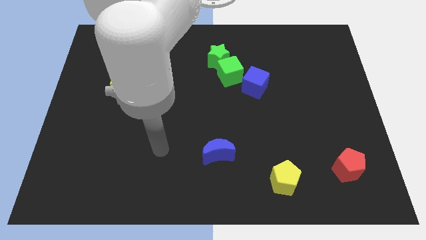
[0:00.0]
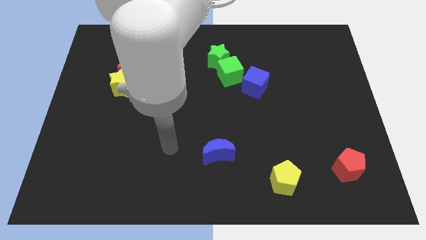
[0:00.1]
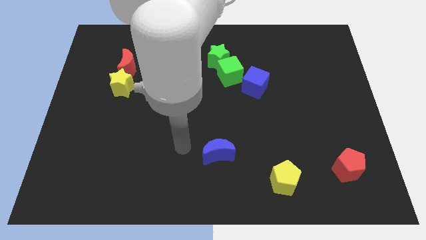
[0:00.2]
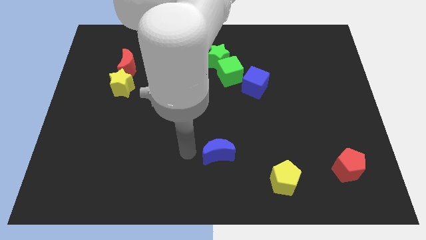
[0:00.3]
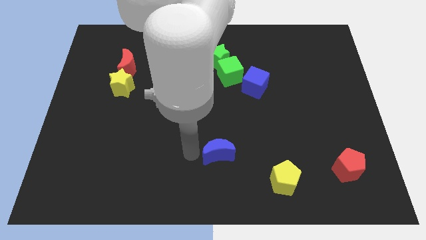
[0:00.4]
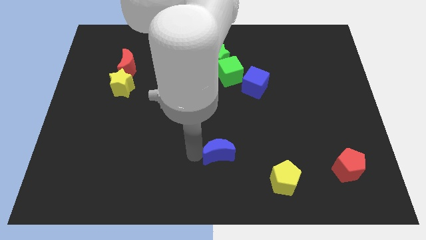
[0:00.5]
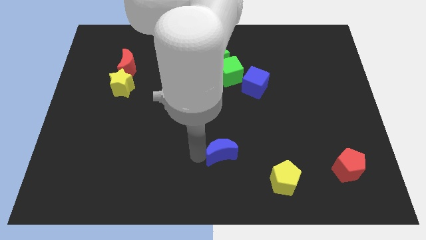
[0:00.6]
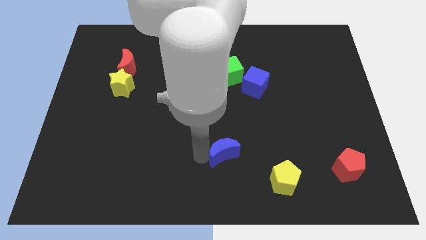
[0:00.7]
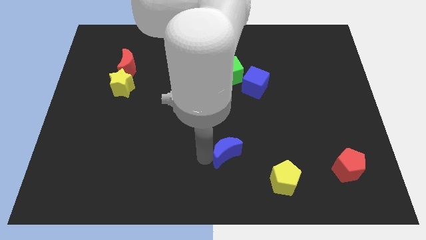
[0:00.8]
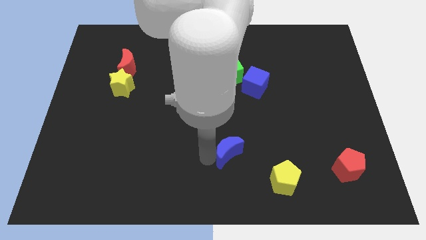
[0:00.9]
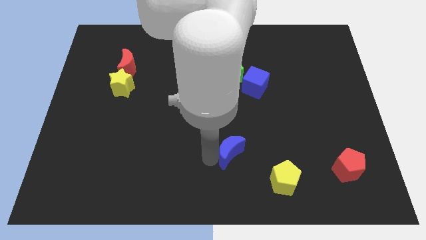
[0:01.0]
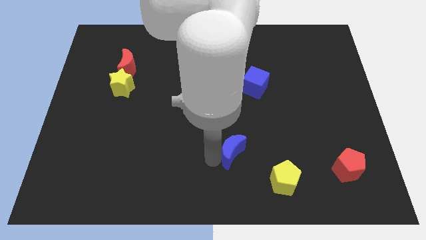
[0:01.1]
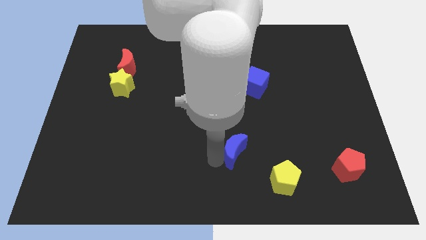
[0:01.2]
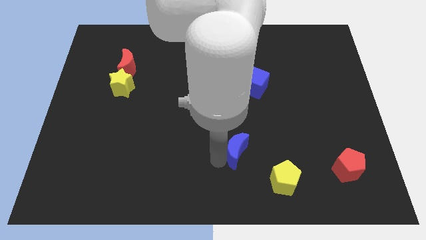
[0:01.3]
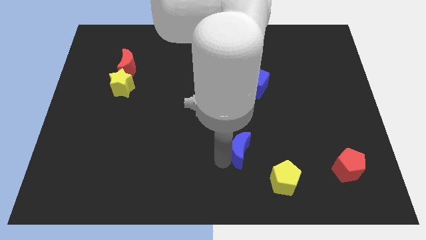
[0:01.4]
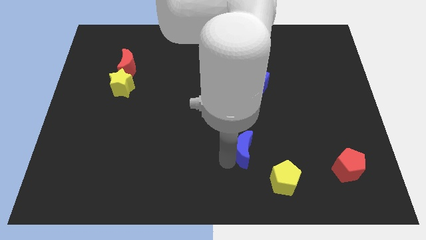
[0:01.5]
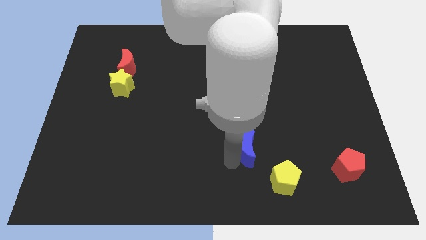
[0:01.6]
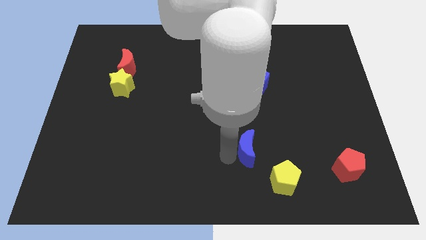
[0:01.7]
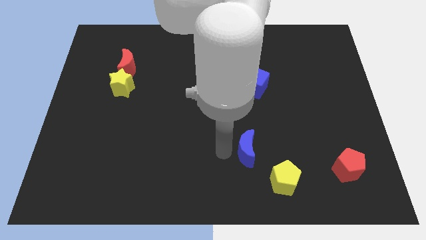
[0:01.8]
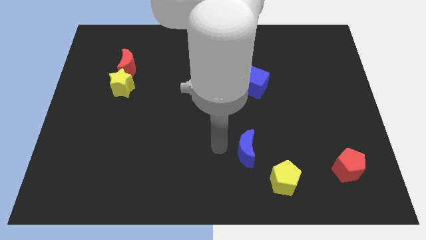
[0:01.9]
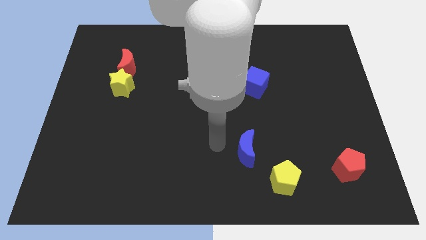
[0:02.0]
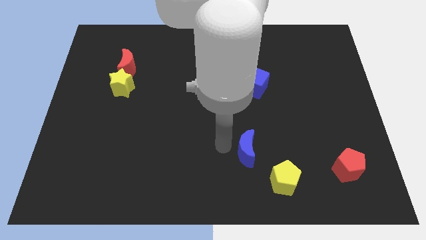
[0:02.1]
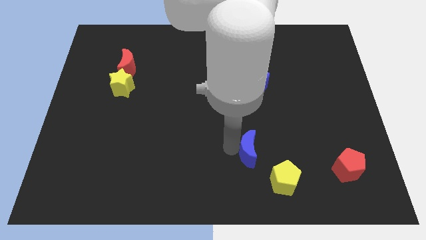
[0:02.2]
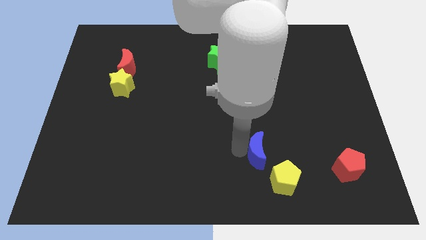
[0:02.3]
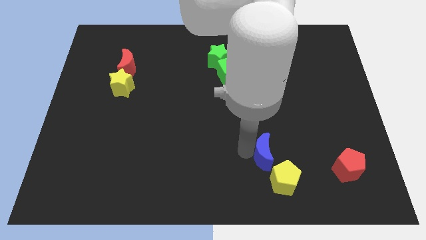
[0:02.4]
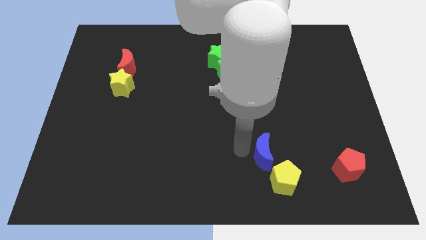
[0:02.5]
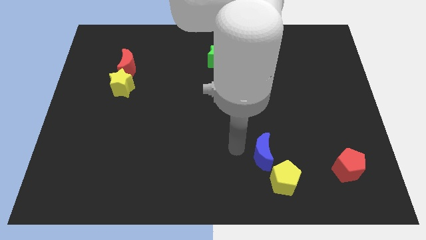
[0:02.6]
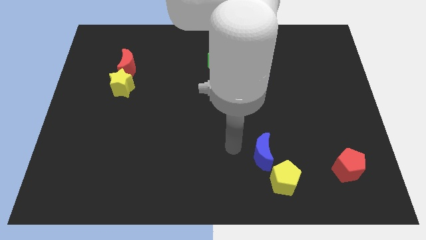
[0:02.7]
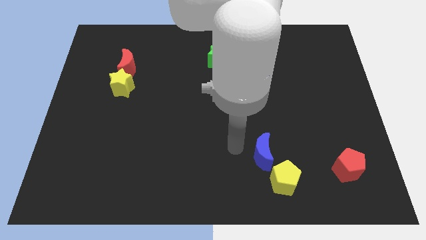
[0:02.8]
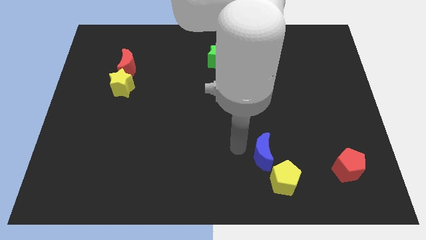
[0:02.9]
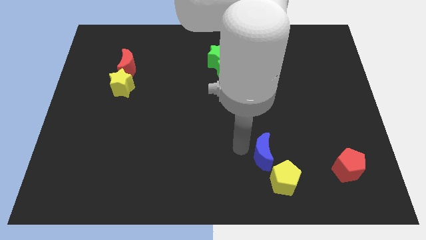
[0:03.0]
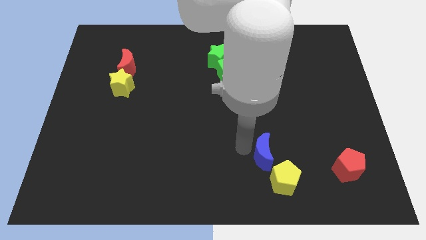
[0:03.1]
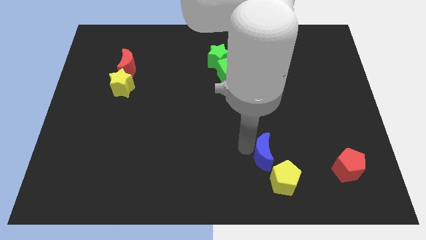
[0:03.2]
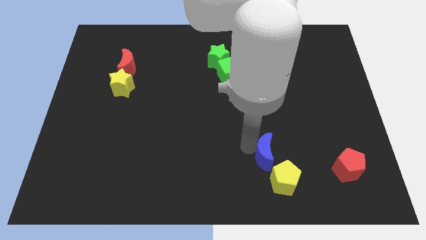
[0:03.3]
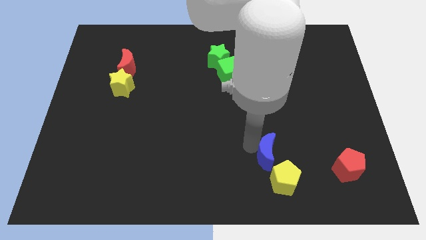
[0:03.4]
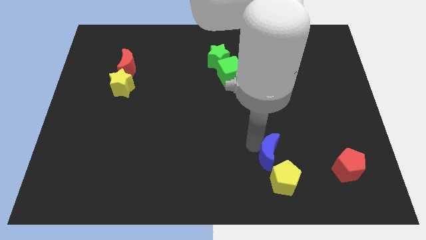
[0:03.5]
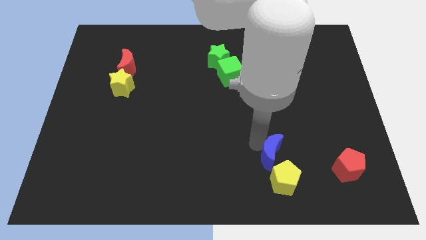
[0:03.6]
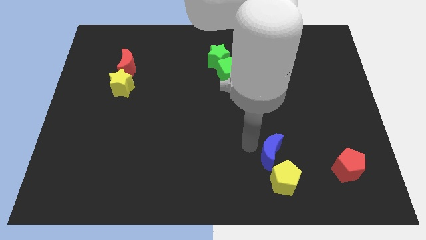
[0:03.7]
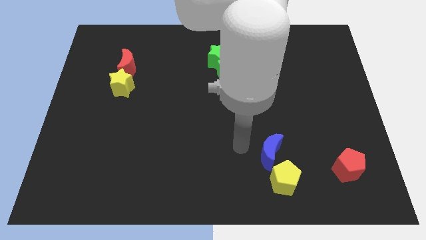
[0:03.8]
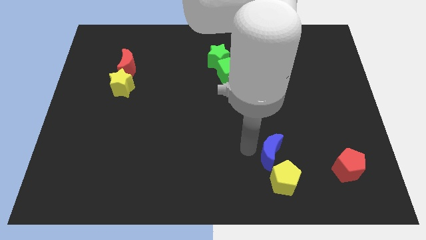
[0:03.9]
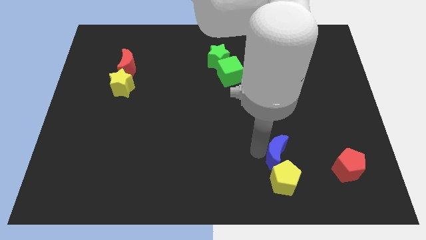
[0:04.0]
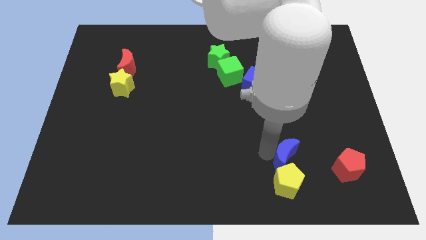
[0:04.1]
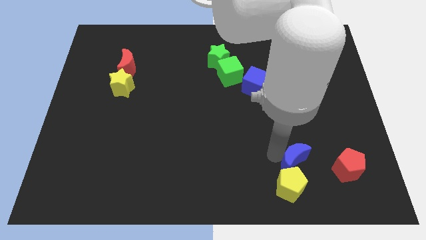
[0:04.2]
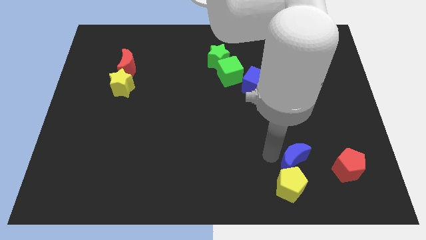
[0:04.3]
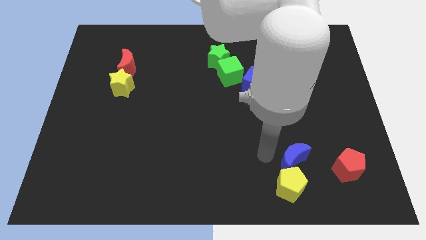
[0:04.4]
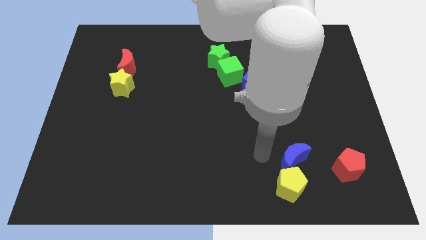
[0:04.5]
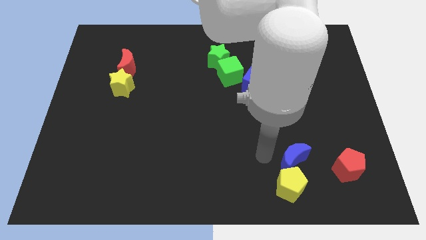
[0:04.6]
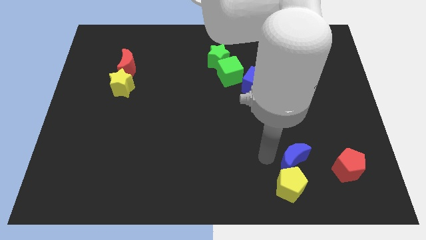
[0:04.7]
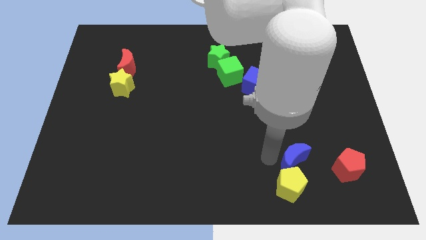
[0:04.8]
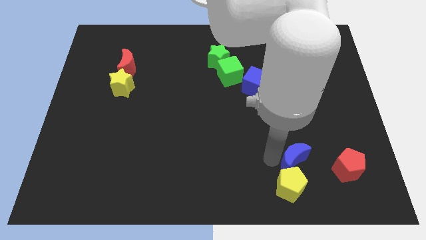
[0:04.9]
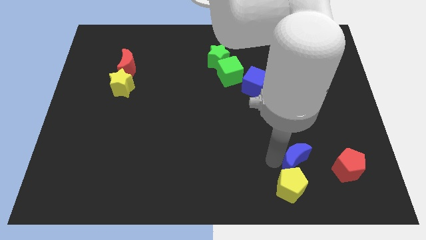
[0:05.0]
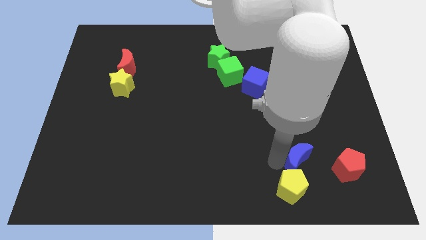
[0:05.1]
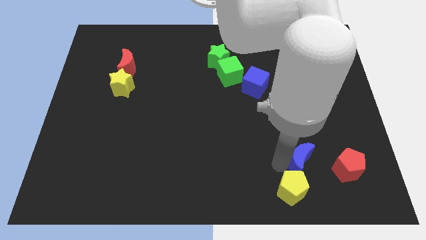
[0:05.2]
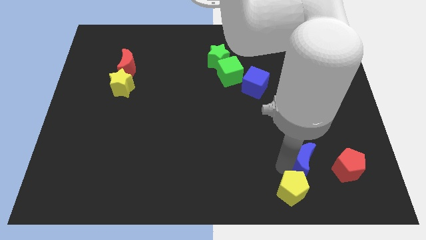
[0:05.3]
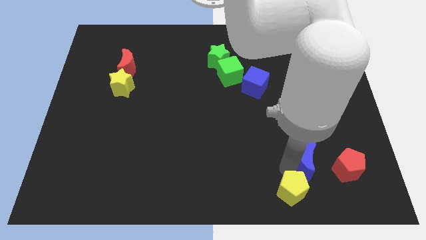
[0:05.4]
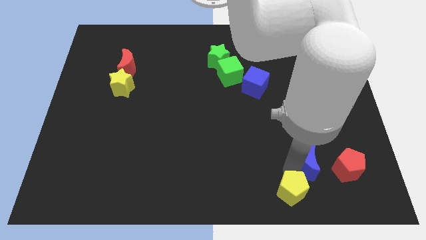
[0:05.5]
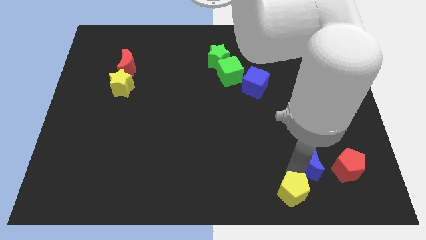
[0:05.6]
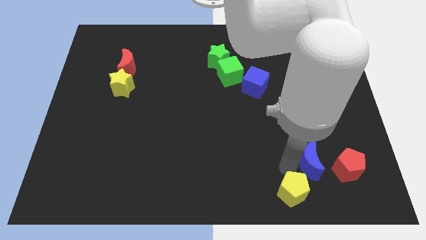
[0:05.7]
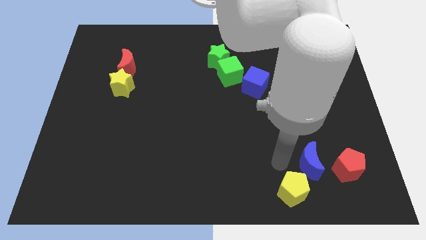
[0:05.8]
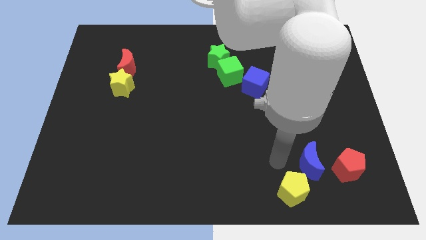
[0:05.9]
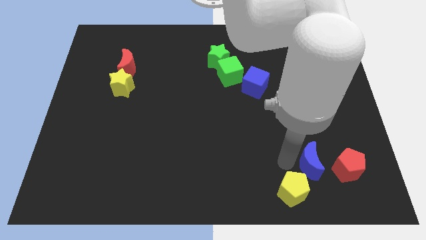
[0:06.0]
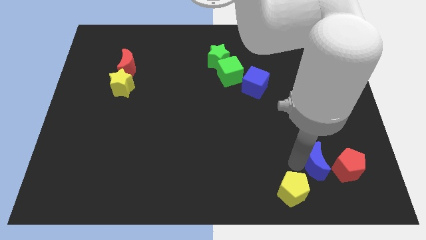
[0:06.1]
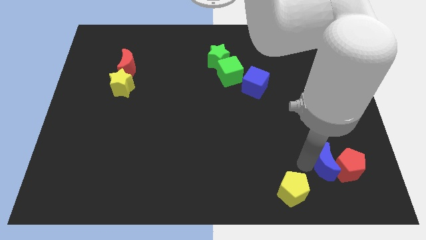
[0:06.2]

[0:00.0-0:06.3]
put the blue moon next to the red pentagon
